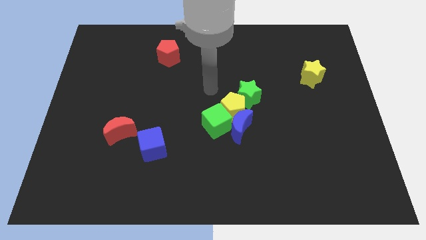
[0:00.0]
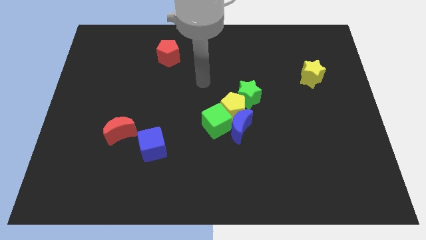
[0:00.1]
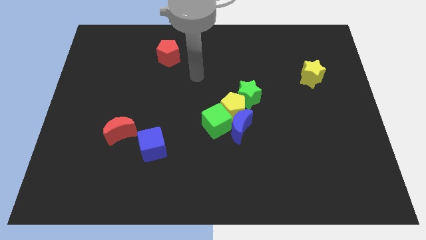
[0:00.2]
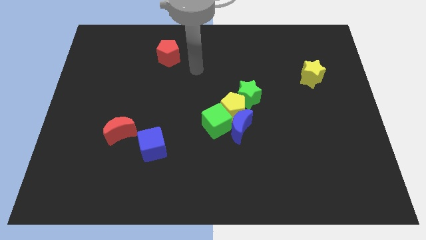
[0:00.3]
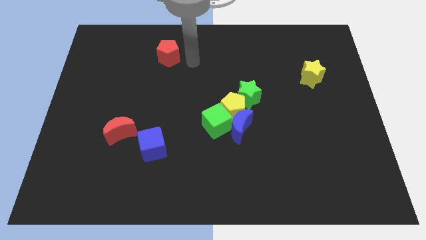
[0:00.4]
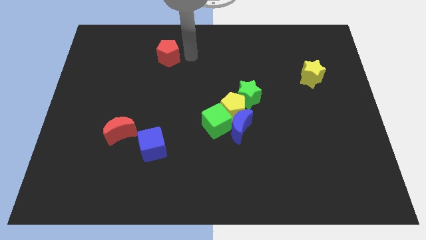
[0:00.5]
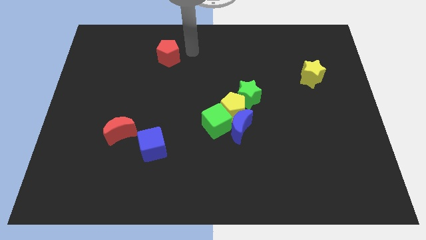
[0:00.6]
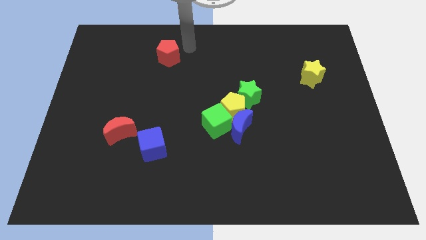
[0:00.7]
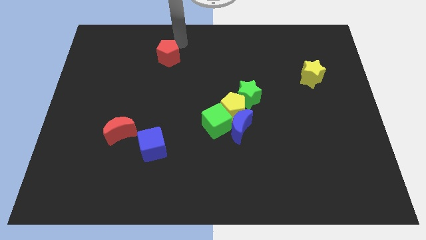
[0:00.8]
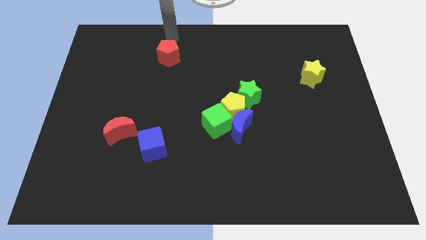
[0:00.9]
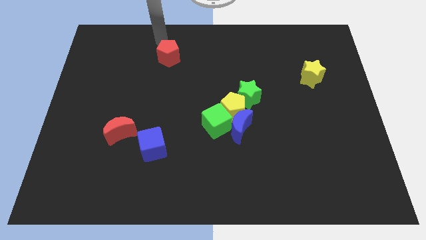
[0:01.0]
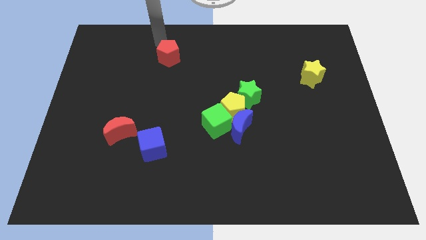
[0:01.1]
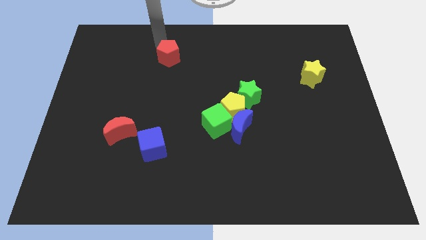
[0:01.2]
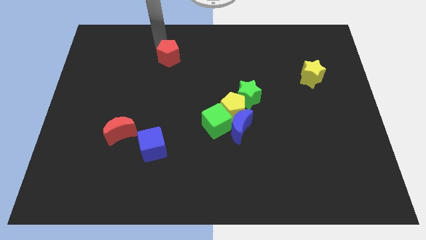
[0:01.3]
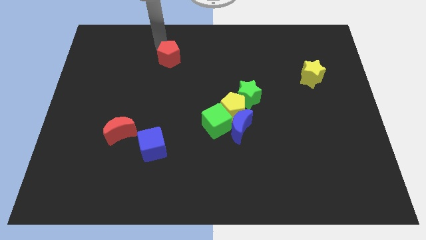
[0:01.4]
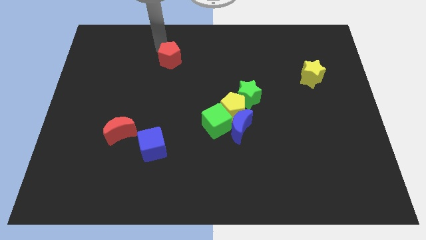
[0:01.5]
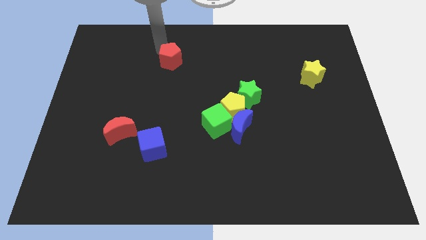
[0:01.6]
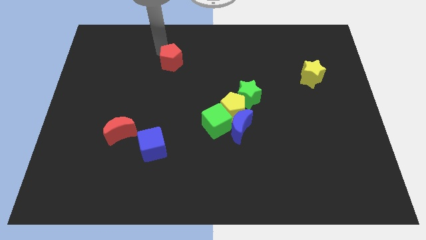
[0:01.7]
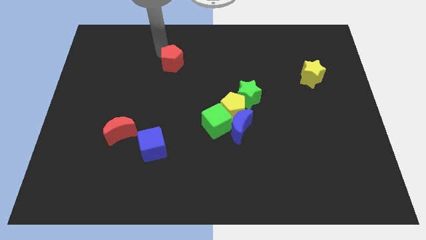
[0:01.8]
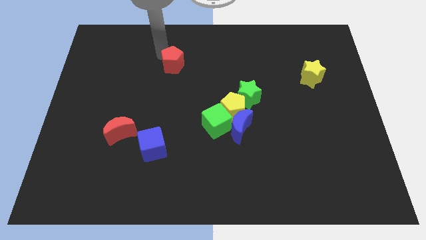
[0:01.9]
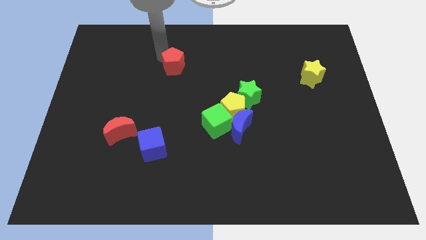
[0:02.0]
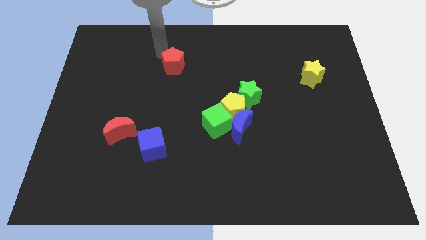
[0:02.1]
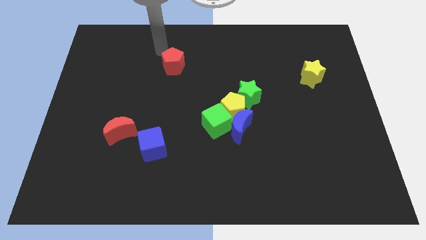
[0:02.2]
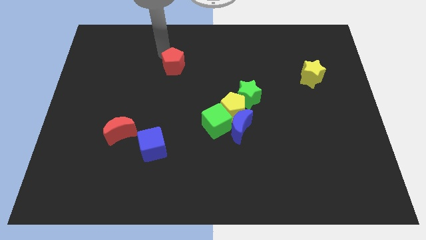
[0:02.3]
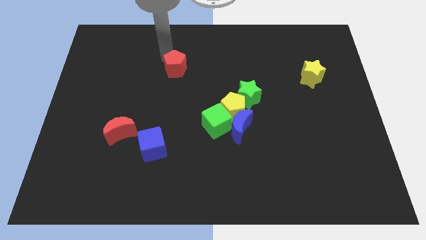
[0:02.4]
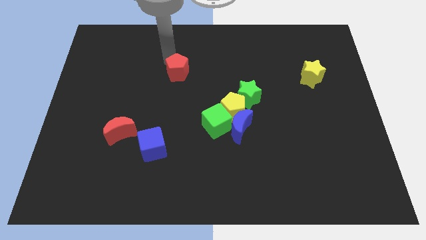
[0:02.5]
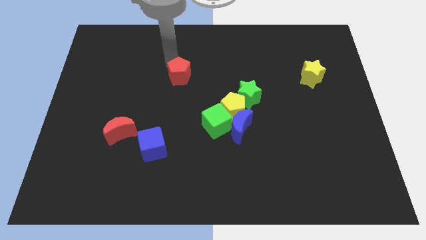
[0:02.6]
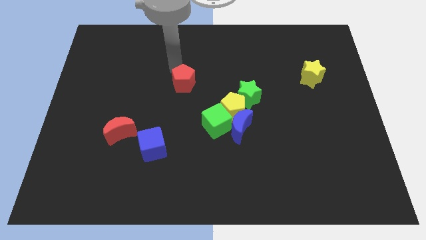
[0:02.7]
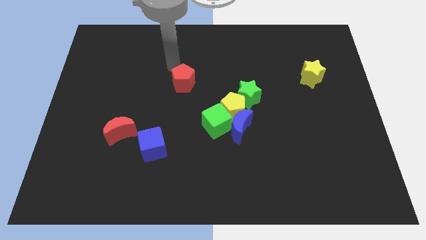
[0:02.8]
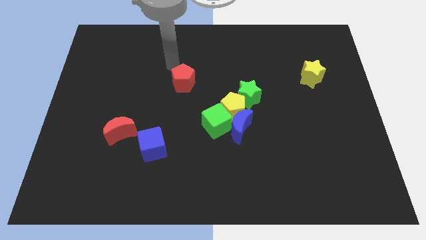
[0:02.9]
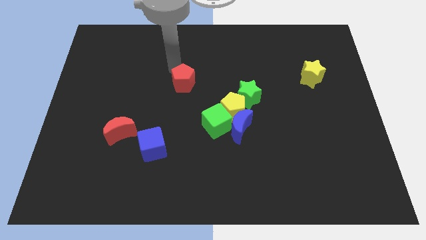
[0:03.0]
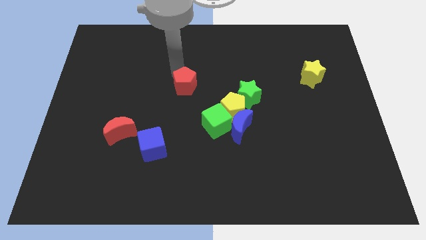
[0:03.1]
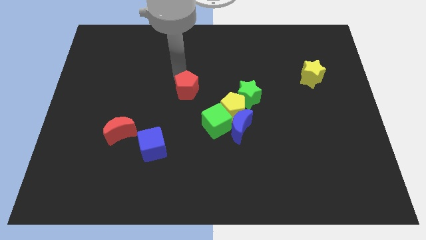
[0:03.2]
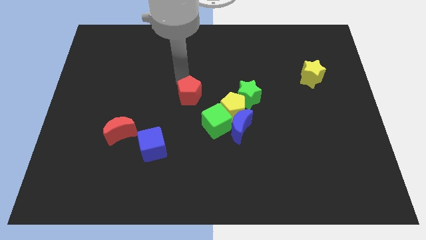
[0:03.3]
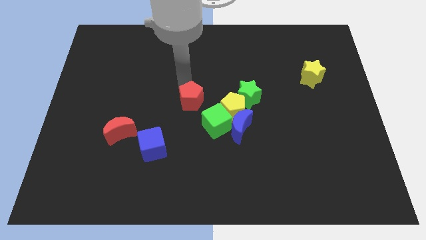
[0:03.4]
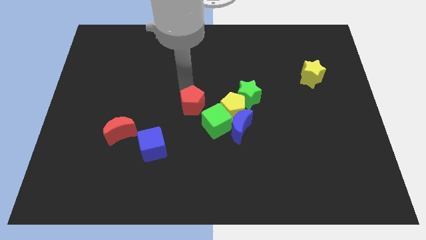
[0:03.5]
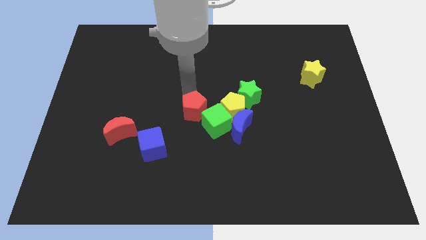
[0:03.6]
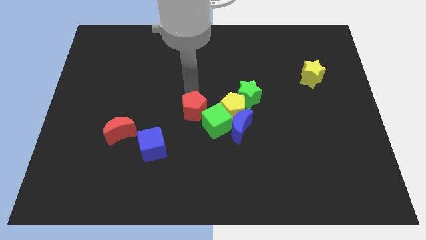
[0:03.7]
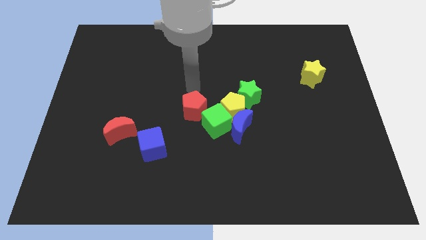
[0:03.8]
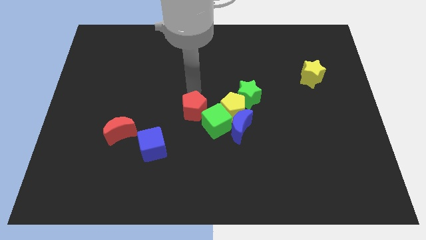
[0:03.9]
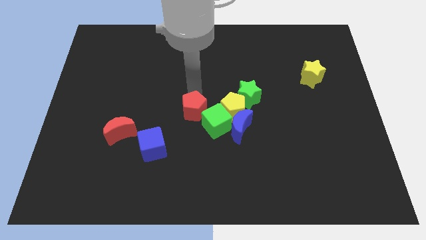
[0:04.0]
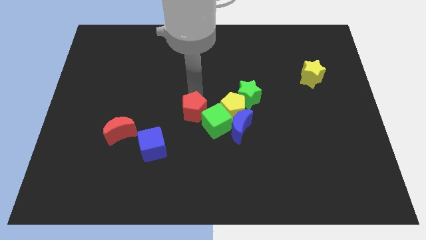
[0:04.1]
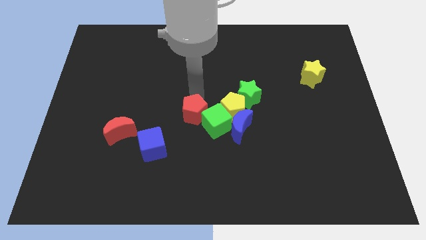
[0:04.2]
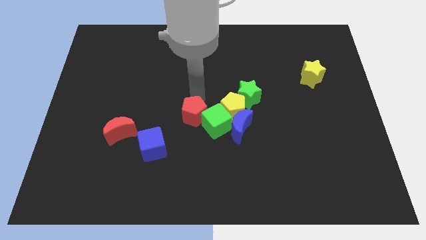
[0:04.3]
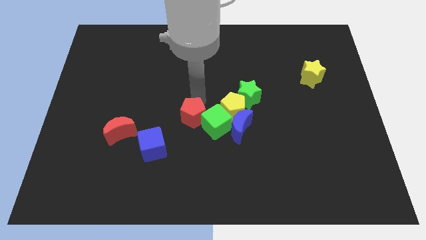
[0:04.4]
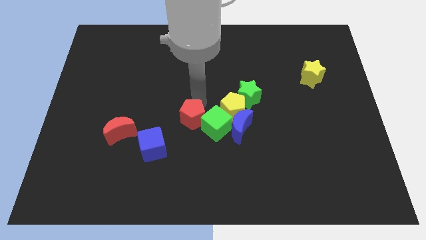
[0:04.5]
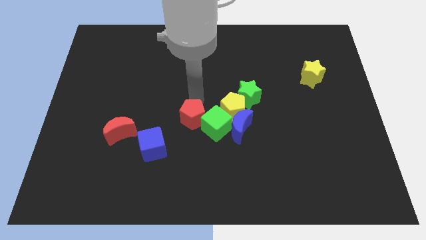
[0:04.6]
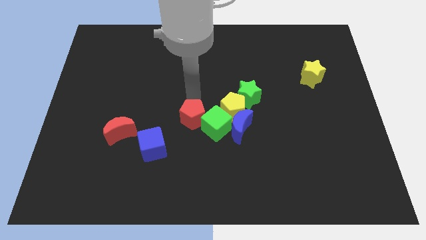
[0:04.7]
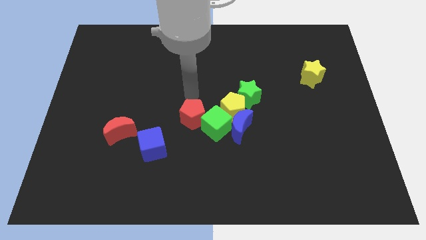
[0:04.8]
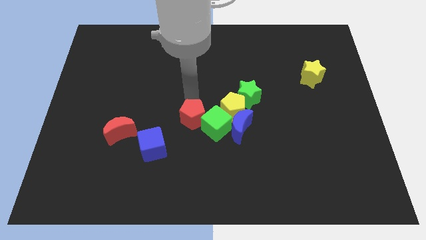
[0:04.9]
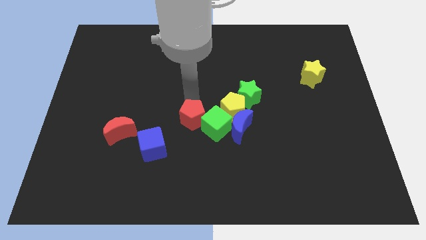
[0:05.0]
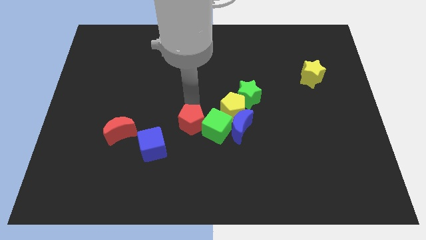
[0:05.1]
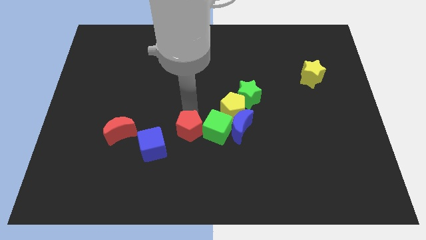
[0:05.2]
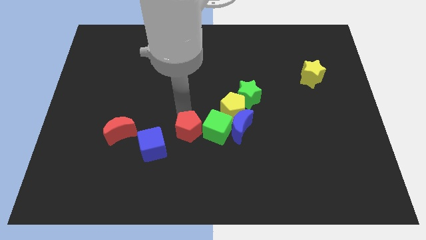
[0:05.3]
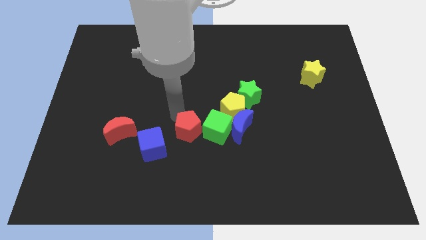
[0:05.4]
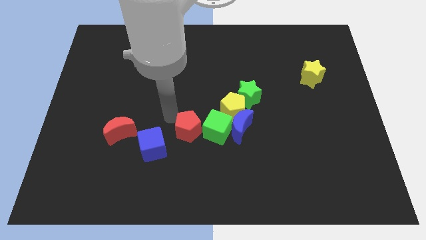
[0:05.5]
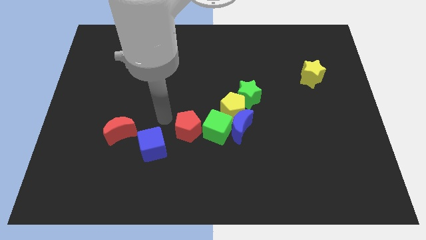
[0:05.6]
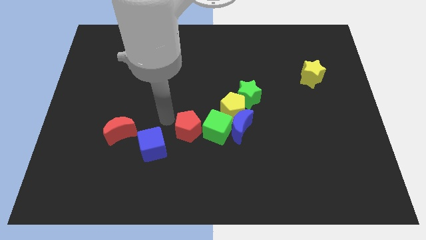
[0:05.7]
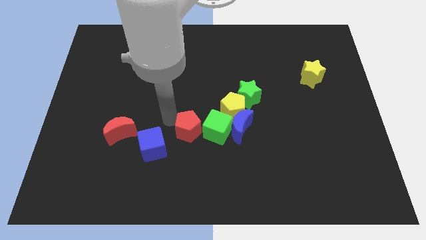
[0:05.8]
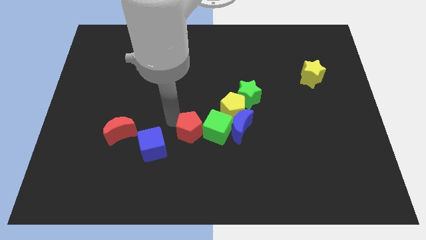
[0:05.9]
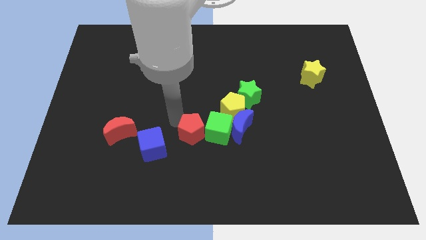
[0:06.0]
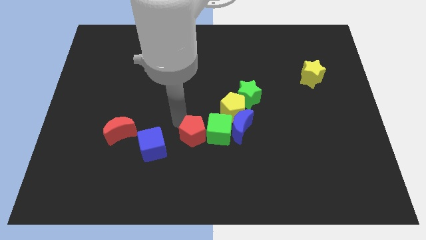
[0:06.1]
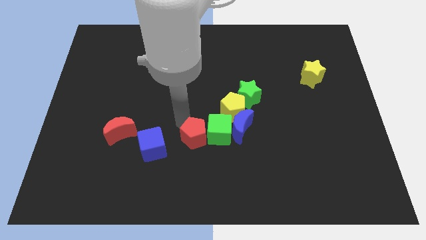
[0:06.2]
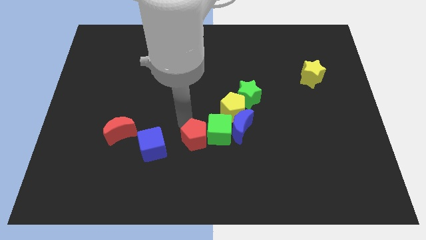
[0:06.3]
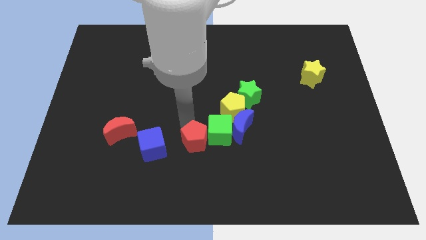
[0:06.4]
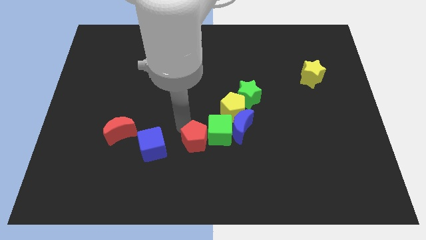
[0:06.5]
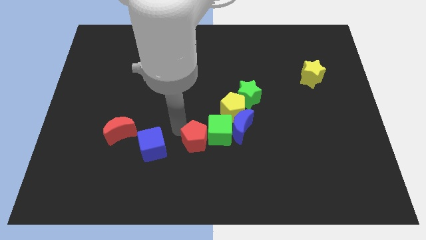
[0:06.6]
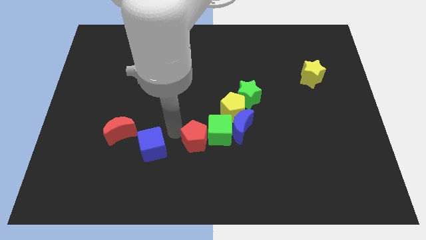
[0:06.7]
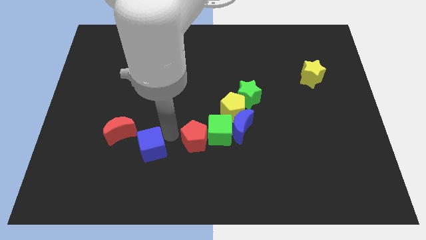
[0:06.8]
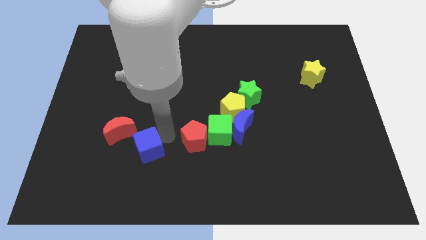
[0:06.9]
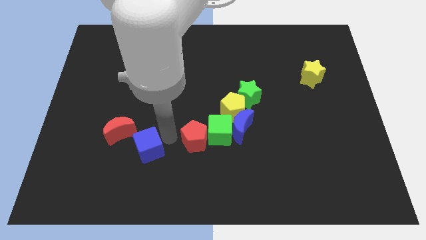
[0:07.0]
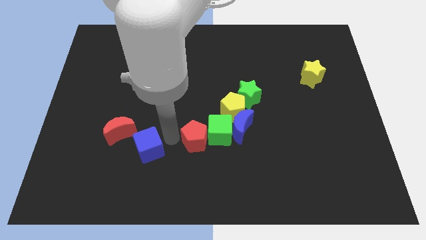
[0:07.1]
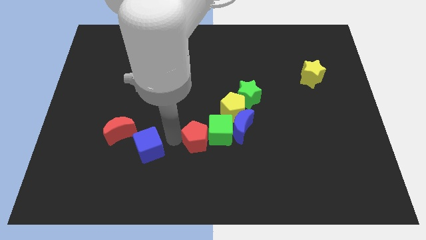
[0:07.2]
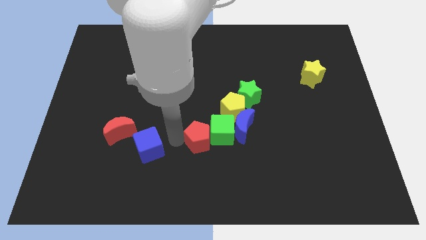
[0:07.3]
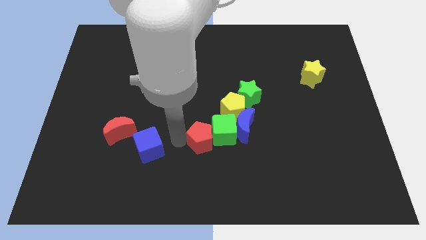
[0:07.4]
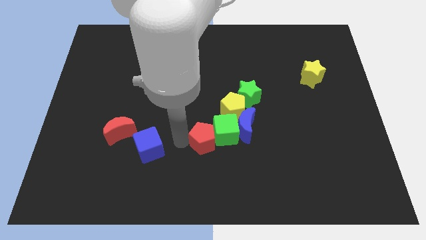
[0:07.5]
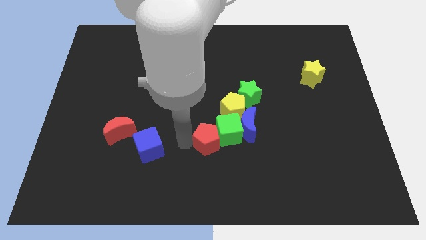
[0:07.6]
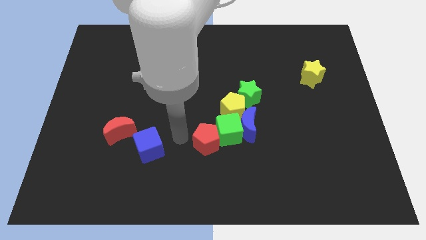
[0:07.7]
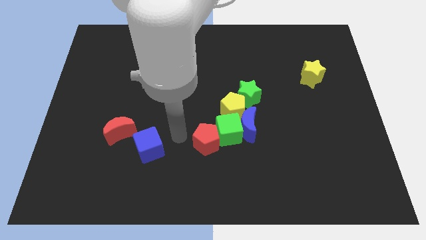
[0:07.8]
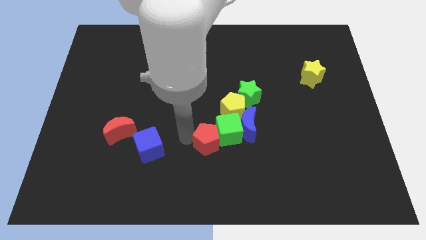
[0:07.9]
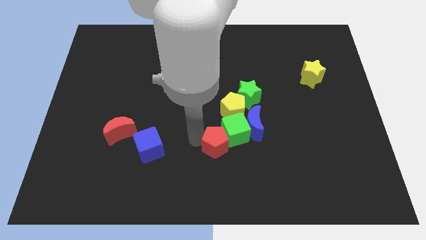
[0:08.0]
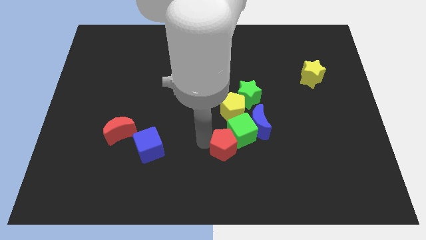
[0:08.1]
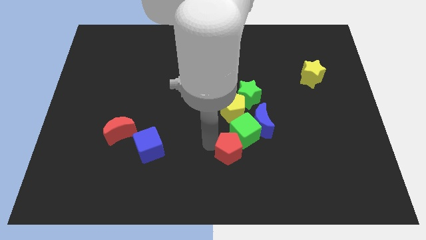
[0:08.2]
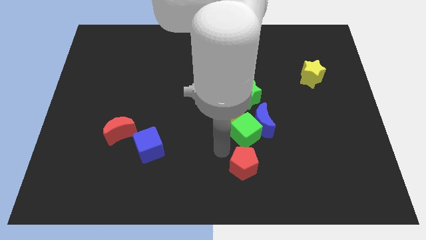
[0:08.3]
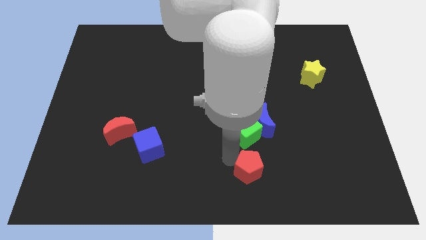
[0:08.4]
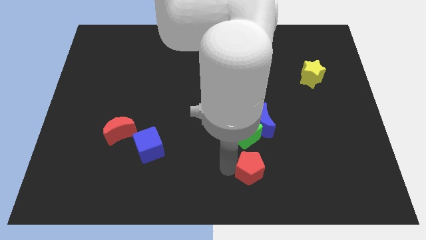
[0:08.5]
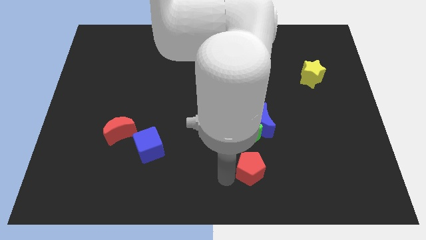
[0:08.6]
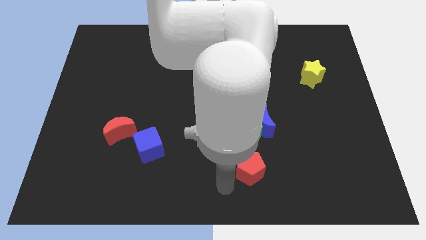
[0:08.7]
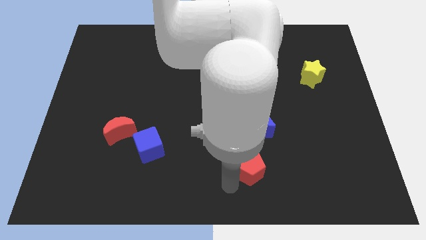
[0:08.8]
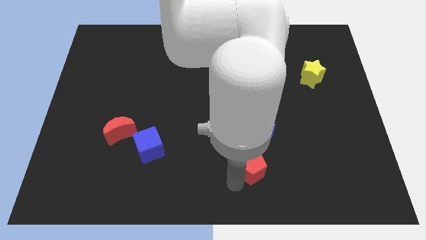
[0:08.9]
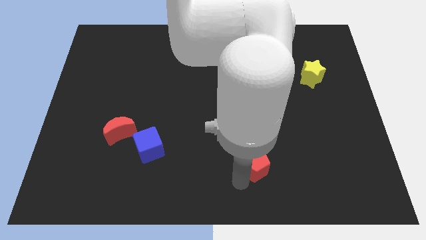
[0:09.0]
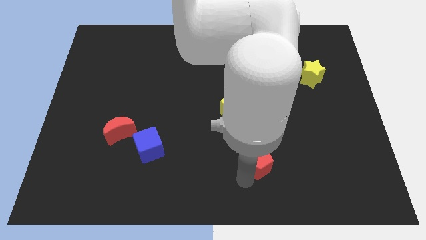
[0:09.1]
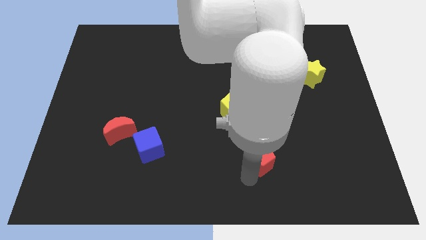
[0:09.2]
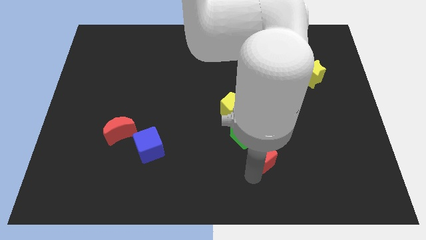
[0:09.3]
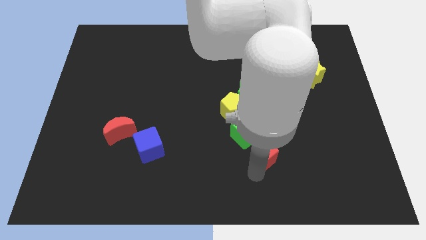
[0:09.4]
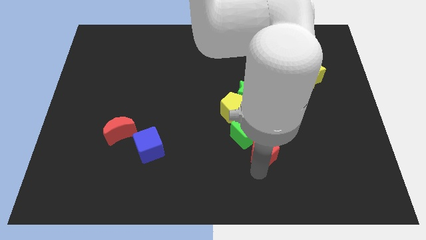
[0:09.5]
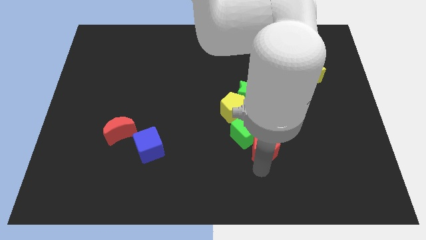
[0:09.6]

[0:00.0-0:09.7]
slide the red pentagon to the bottom right of the blue moon
